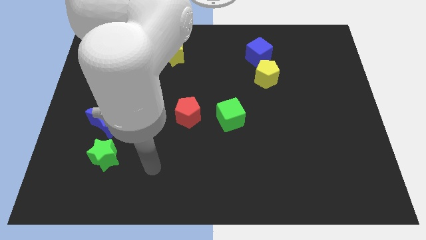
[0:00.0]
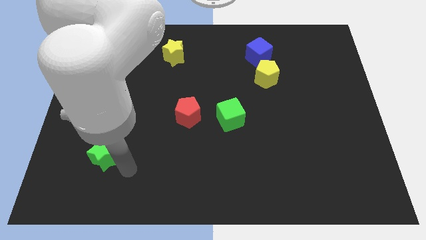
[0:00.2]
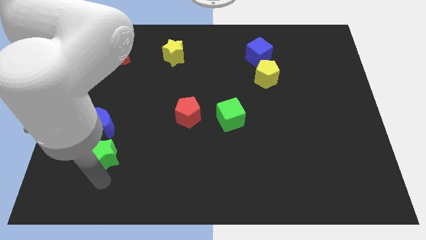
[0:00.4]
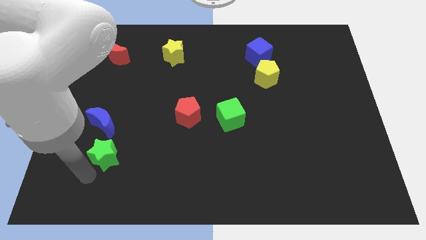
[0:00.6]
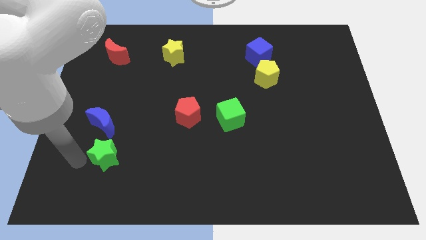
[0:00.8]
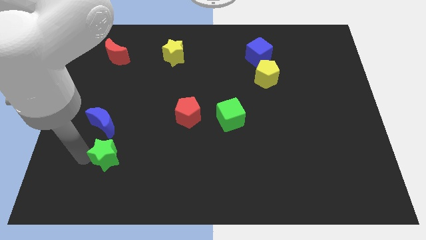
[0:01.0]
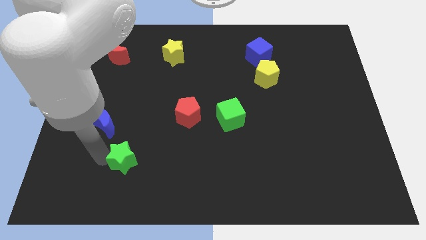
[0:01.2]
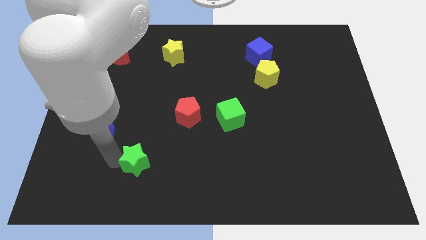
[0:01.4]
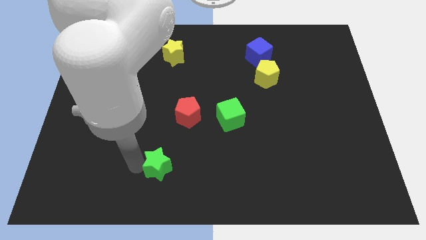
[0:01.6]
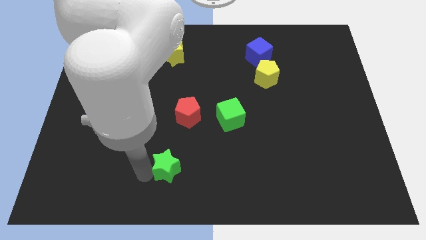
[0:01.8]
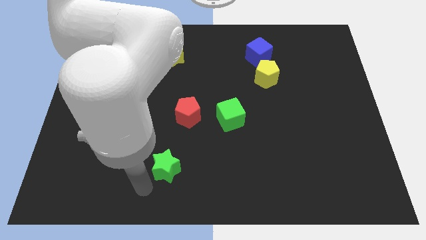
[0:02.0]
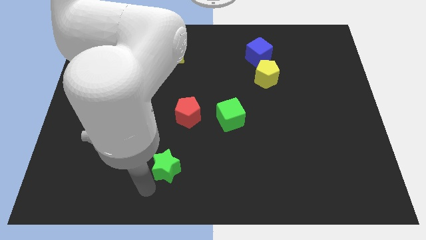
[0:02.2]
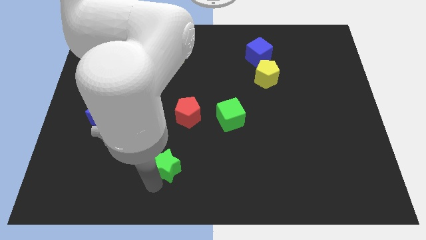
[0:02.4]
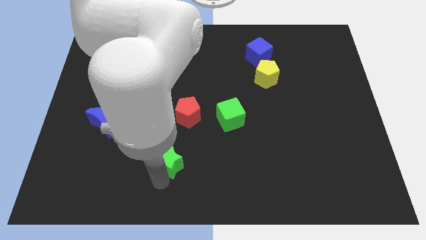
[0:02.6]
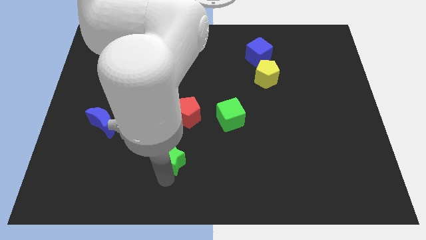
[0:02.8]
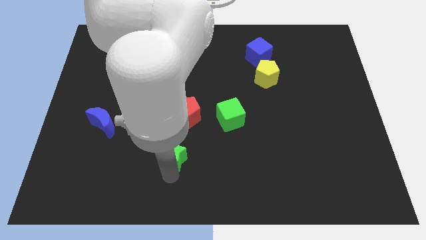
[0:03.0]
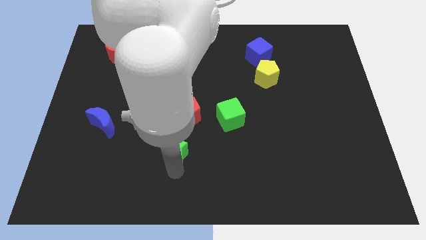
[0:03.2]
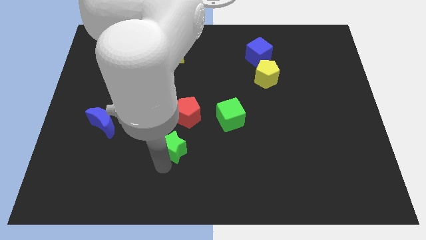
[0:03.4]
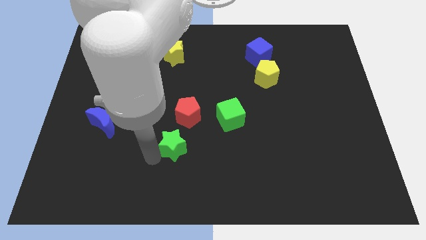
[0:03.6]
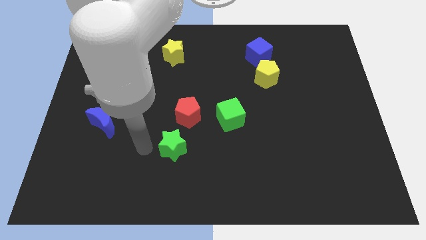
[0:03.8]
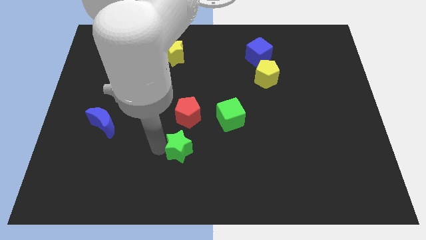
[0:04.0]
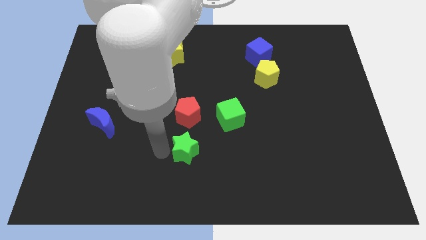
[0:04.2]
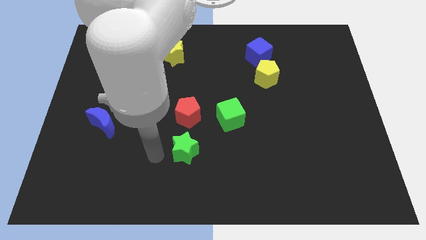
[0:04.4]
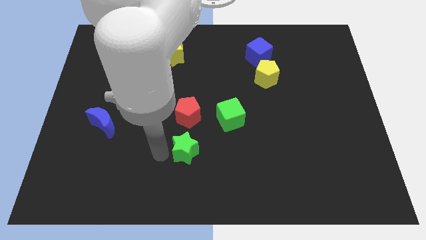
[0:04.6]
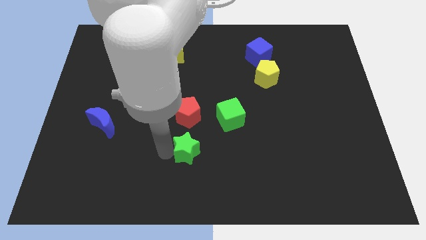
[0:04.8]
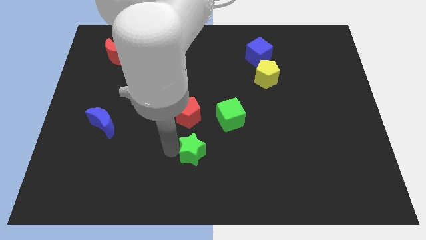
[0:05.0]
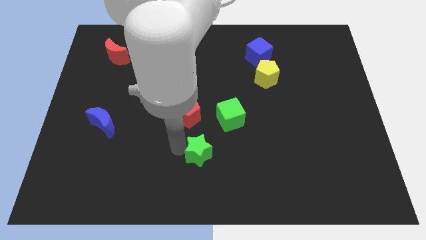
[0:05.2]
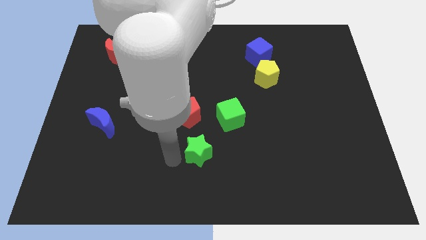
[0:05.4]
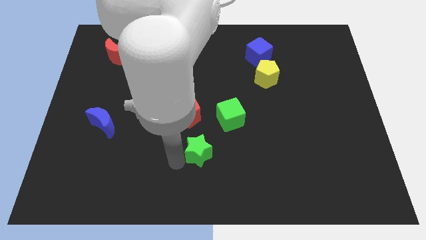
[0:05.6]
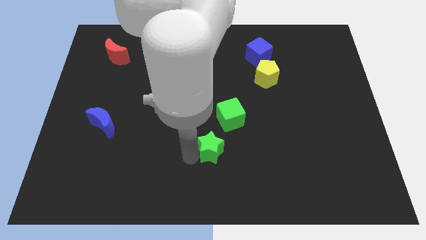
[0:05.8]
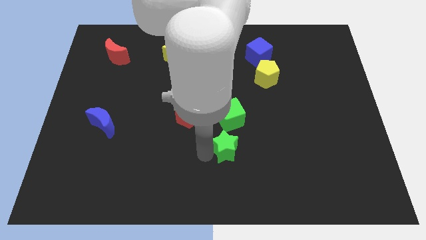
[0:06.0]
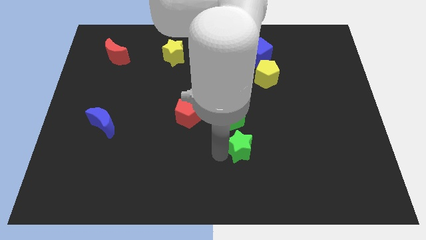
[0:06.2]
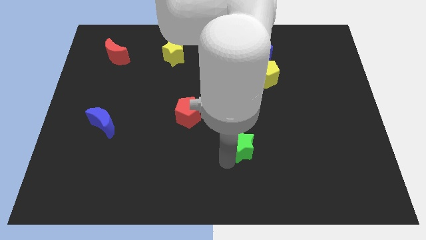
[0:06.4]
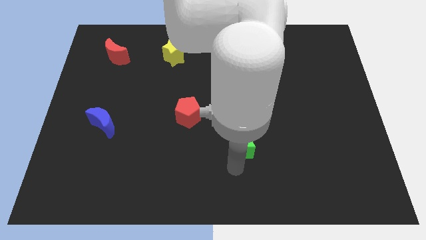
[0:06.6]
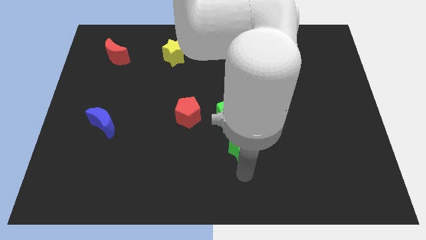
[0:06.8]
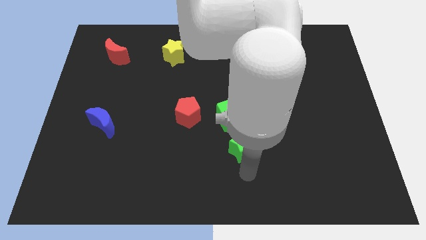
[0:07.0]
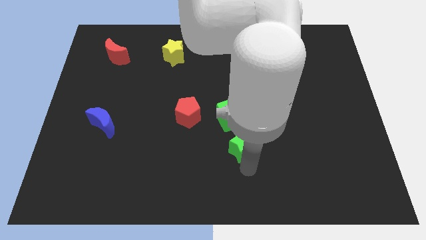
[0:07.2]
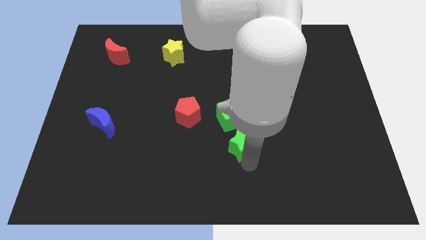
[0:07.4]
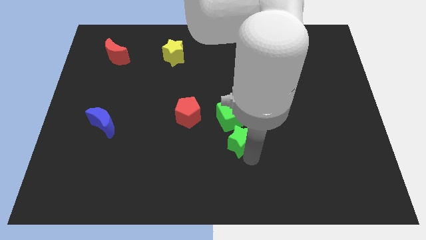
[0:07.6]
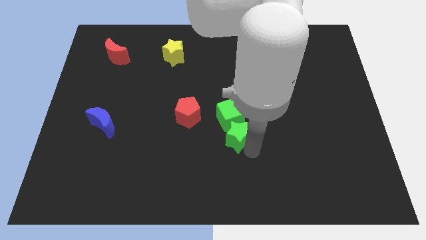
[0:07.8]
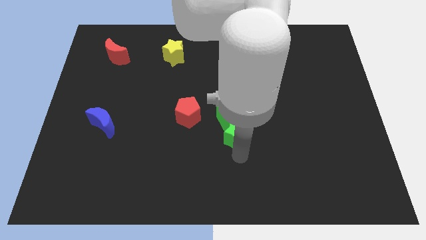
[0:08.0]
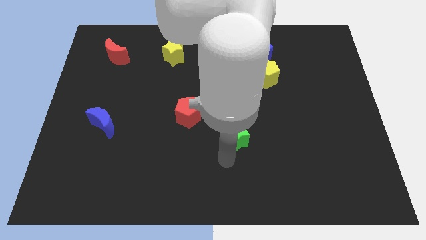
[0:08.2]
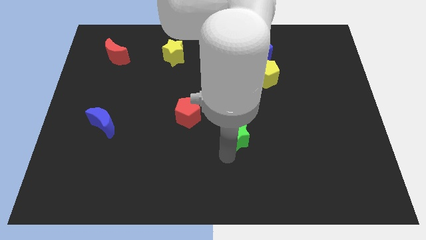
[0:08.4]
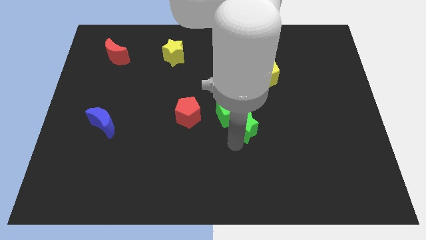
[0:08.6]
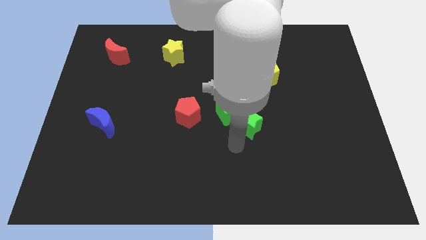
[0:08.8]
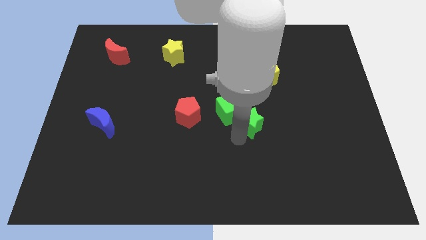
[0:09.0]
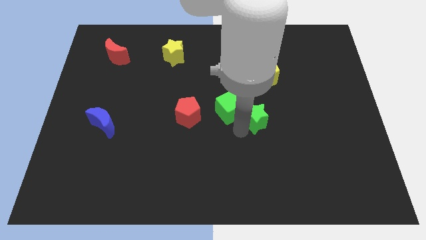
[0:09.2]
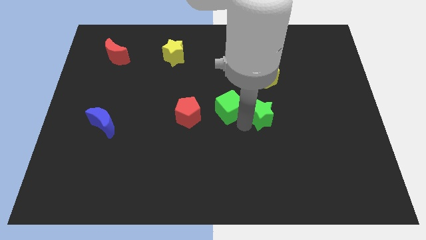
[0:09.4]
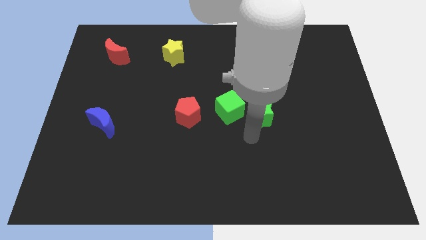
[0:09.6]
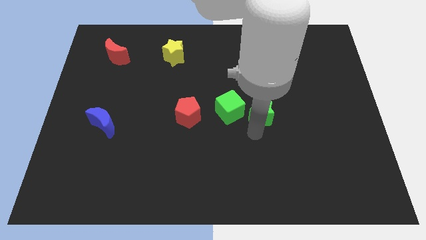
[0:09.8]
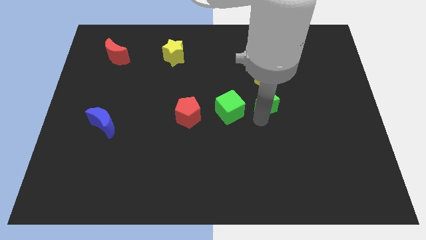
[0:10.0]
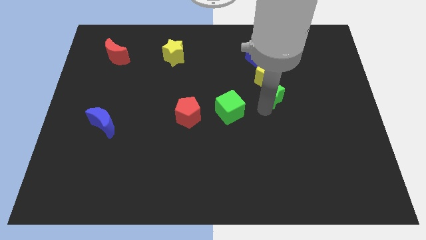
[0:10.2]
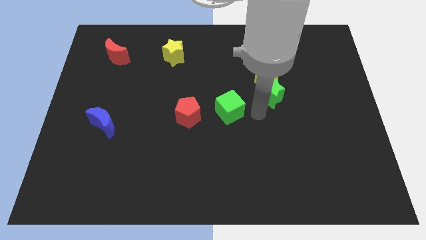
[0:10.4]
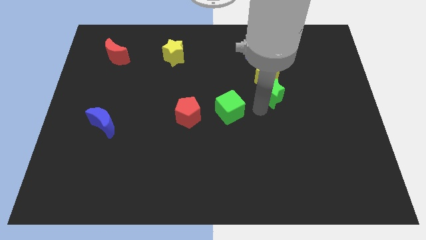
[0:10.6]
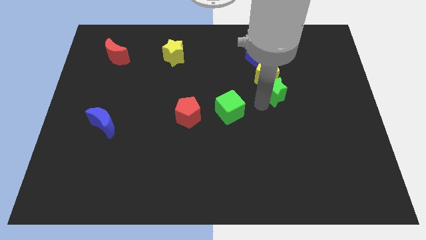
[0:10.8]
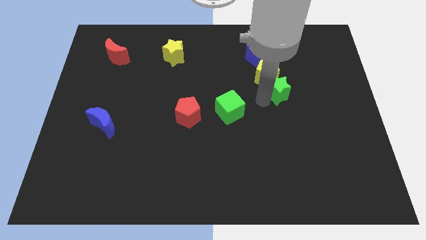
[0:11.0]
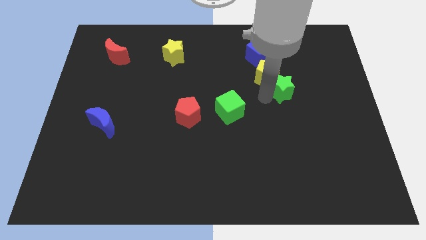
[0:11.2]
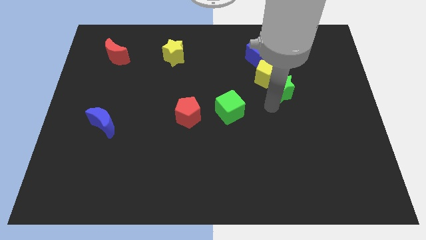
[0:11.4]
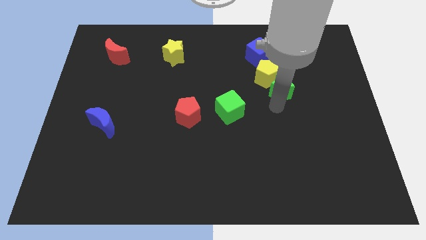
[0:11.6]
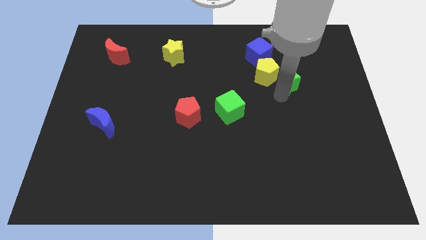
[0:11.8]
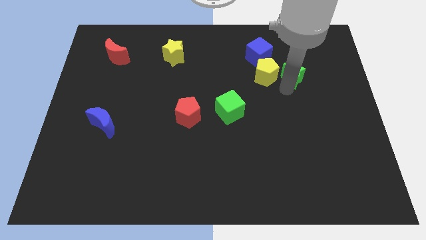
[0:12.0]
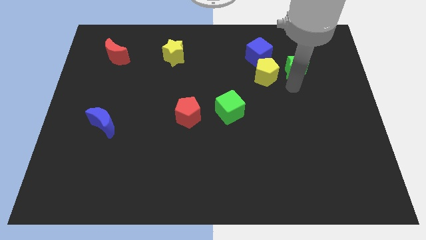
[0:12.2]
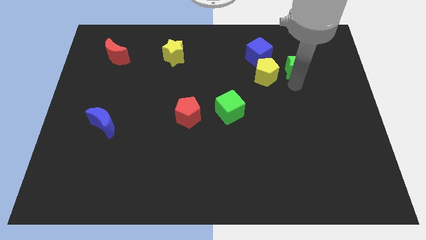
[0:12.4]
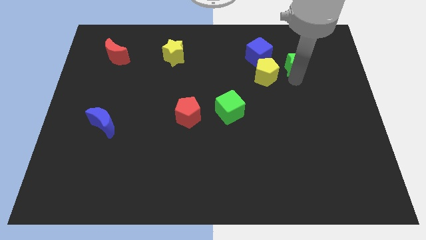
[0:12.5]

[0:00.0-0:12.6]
push the green star to the right side of the blue cube

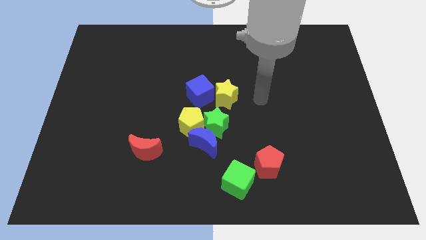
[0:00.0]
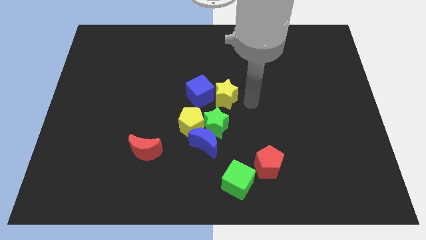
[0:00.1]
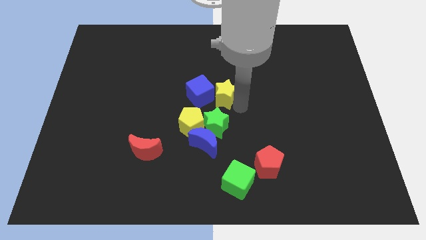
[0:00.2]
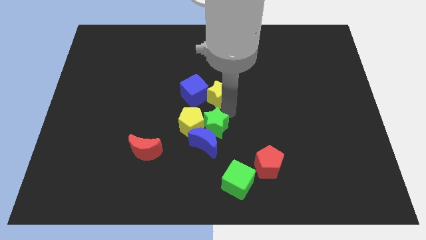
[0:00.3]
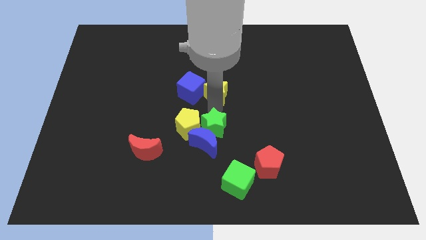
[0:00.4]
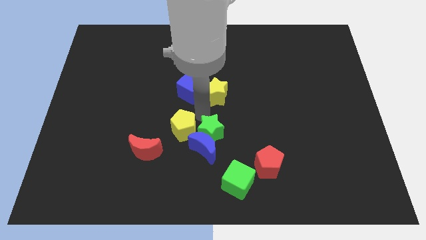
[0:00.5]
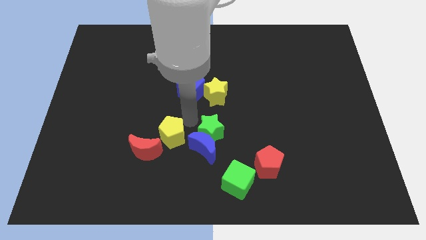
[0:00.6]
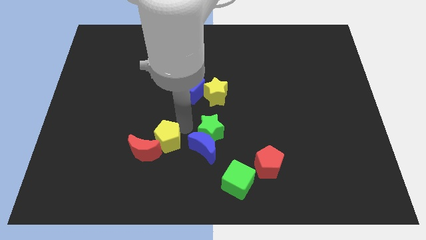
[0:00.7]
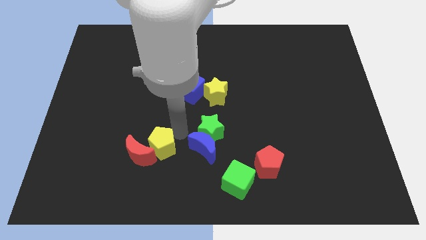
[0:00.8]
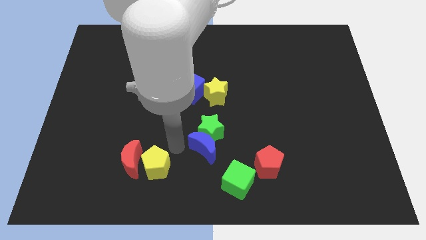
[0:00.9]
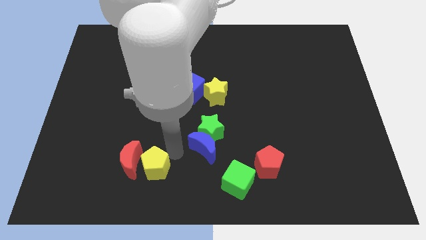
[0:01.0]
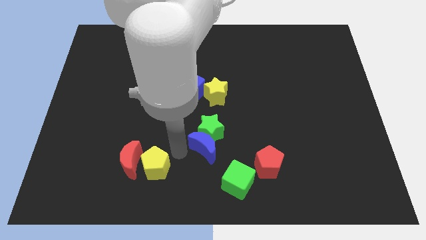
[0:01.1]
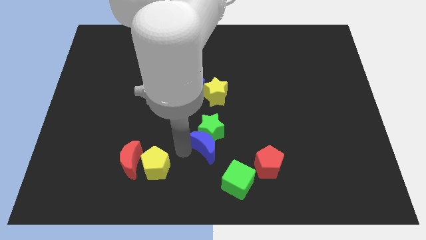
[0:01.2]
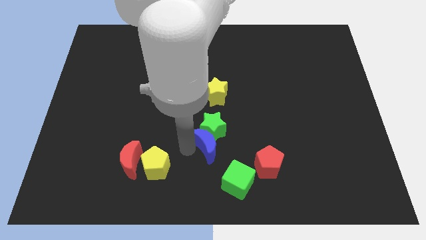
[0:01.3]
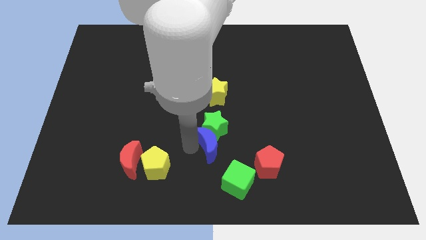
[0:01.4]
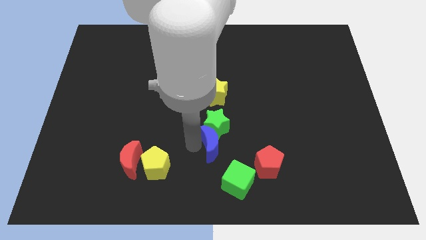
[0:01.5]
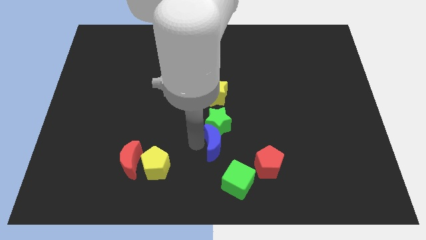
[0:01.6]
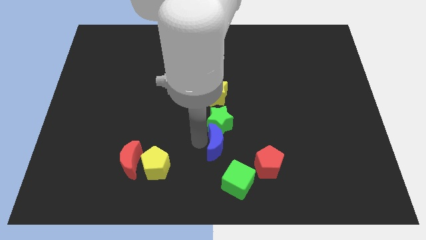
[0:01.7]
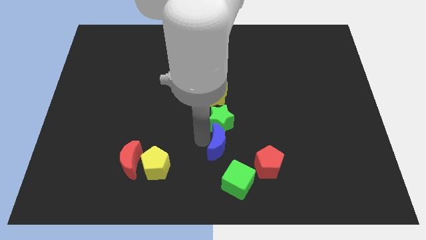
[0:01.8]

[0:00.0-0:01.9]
push the blue moon to the top left of the red pentagon
